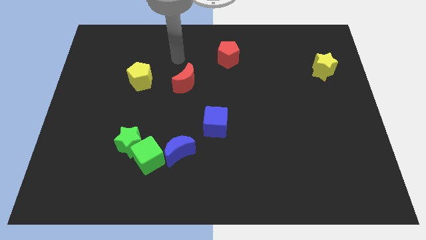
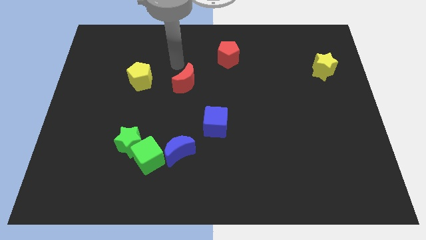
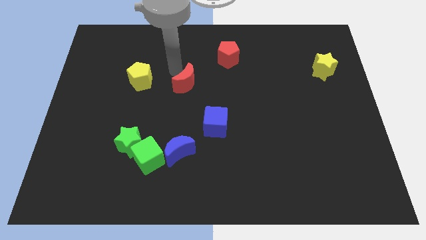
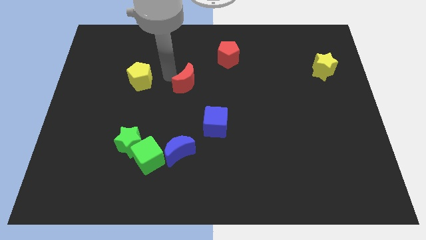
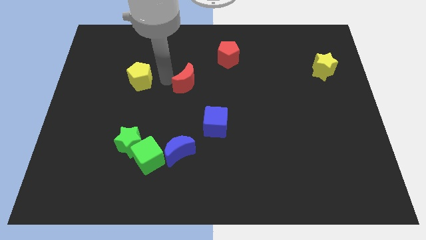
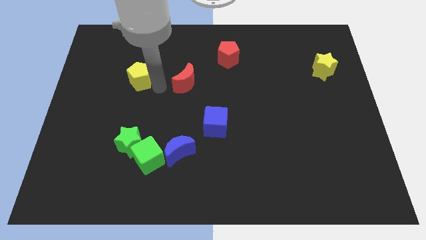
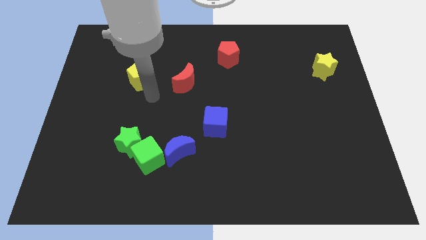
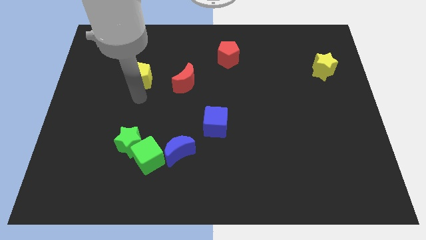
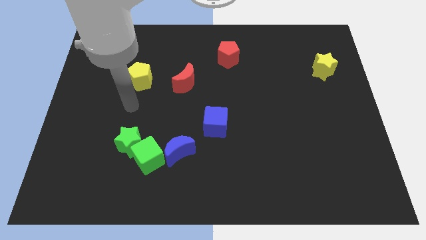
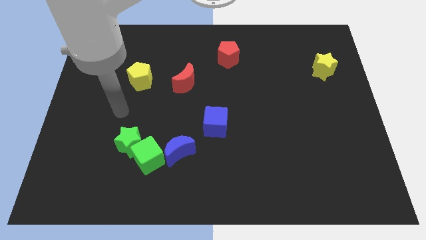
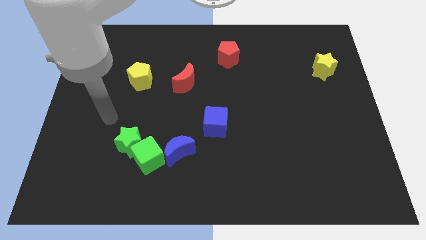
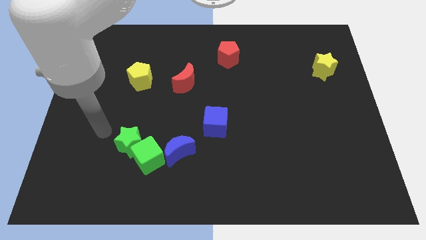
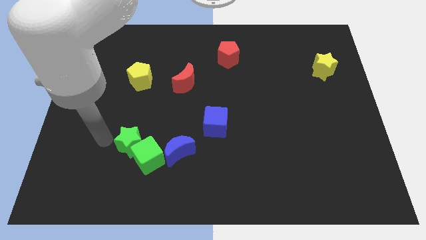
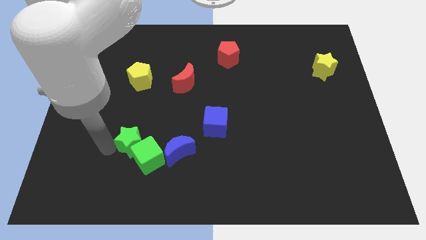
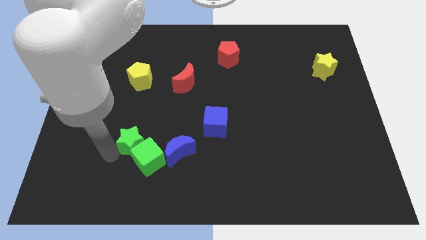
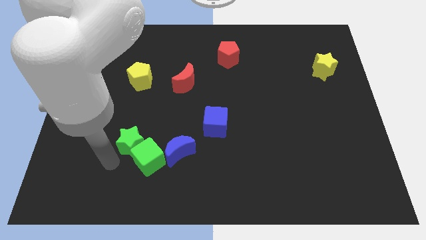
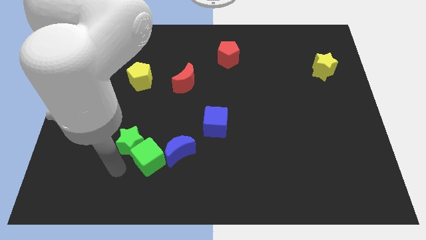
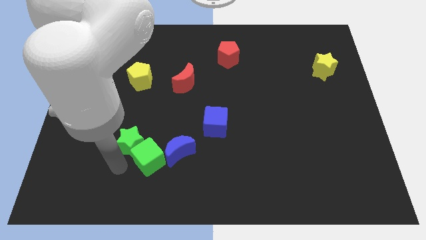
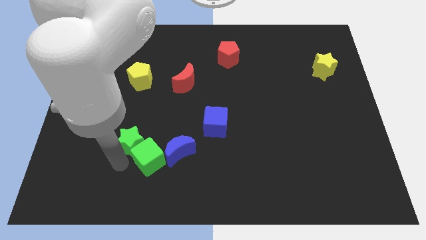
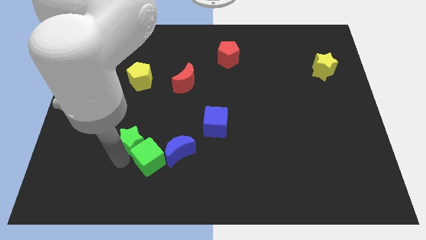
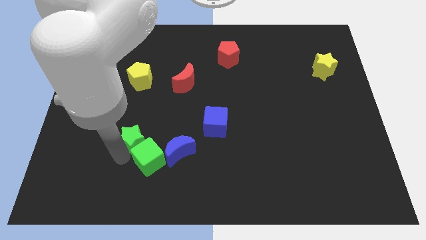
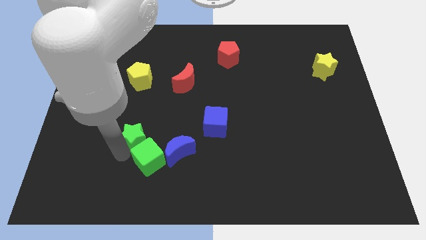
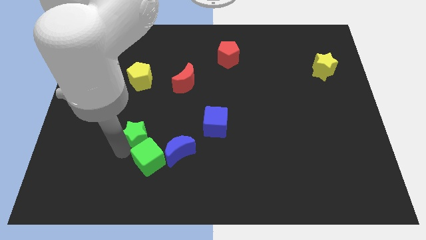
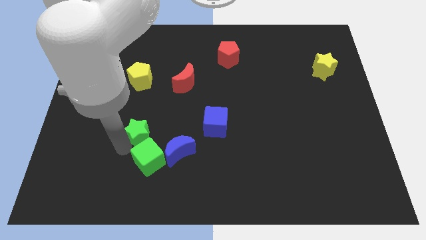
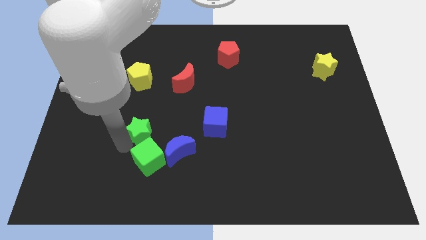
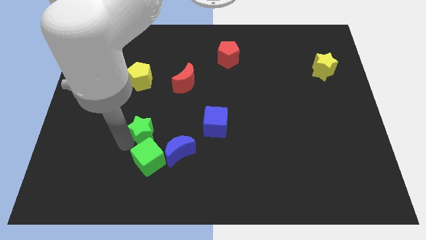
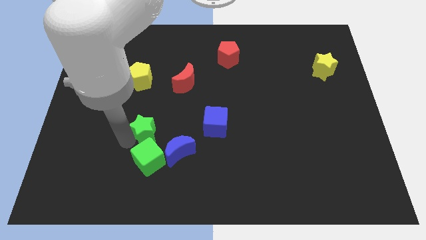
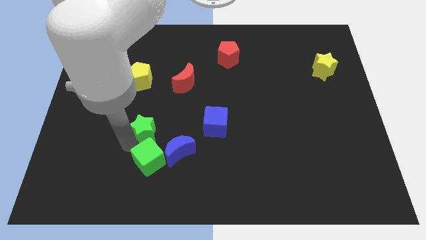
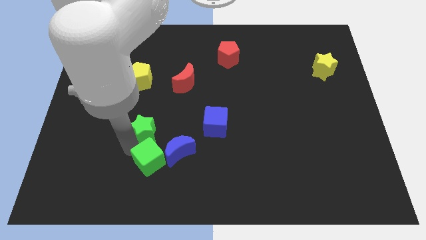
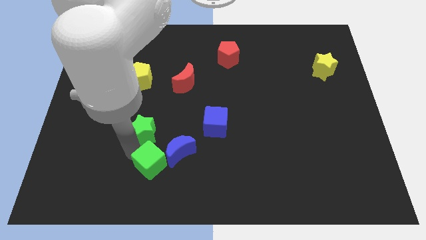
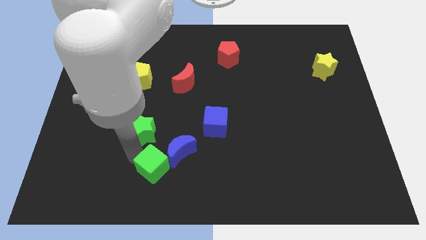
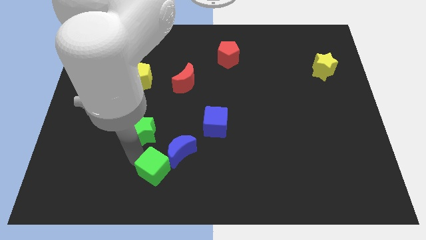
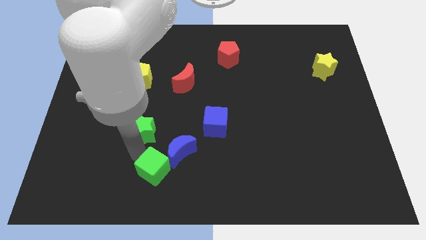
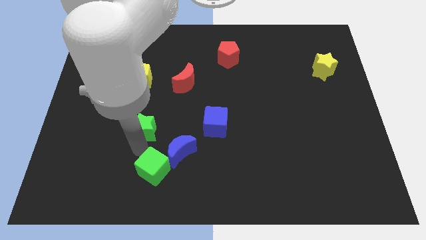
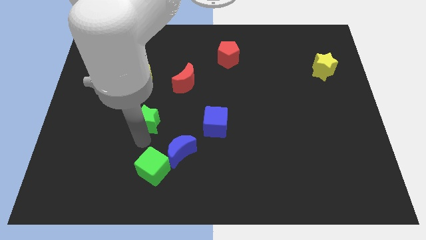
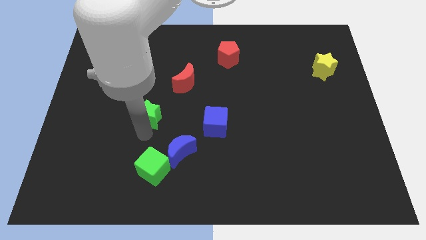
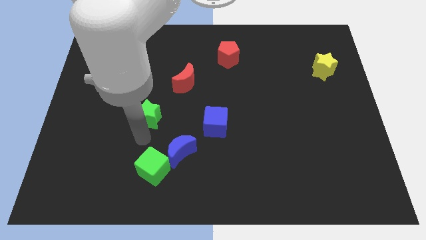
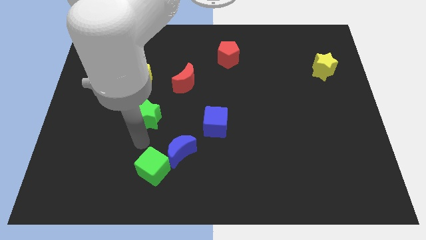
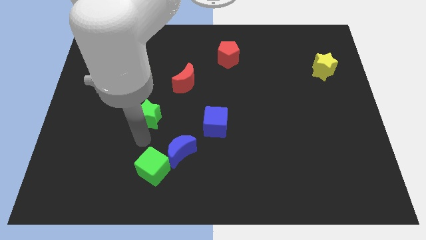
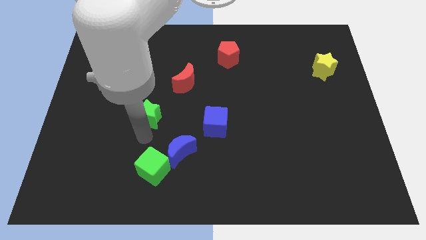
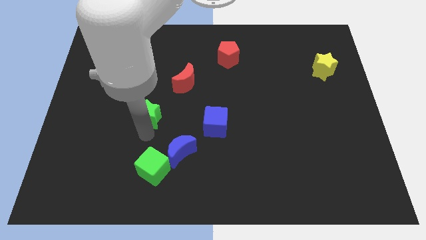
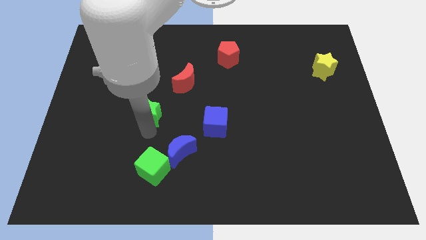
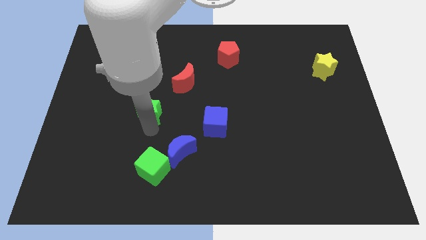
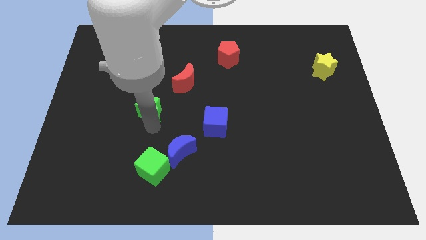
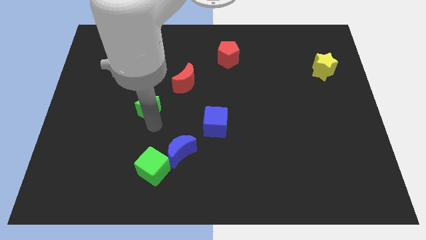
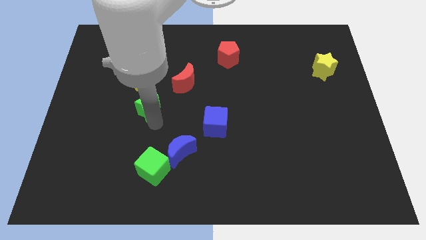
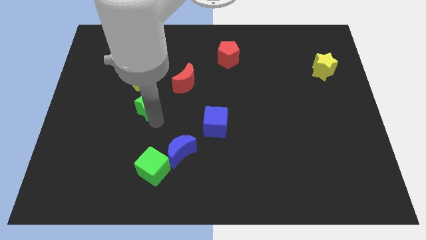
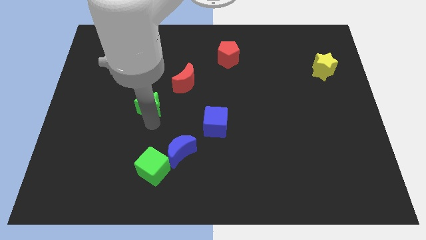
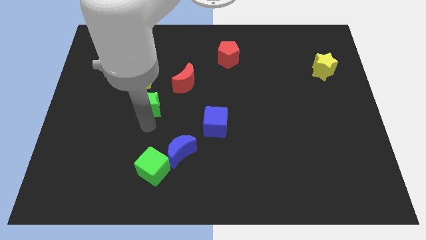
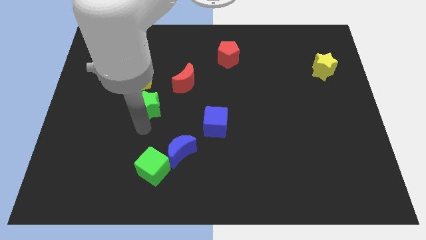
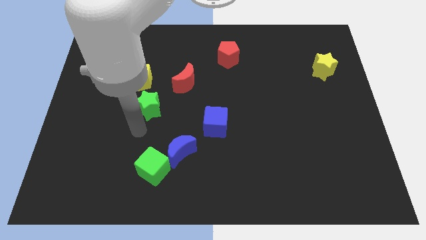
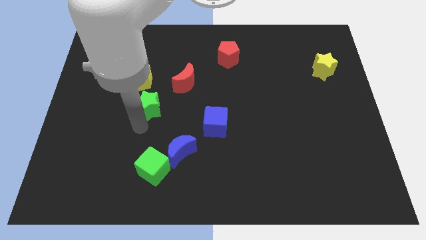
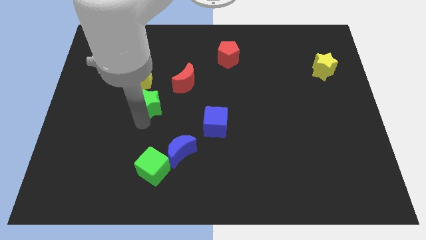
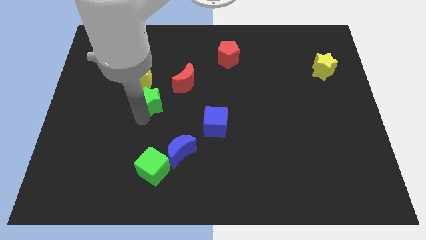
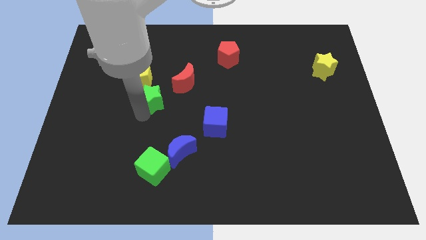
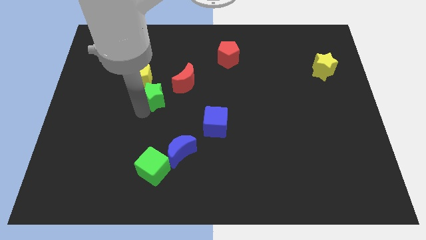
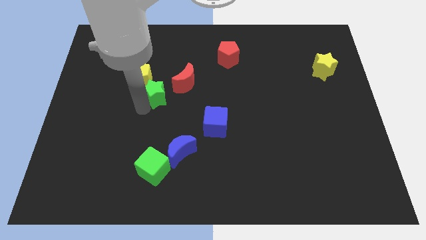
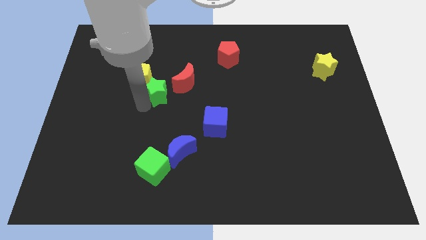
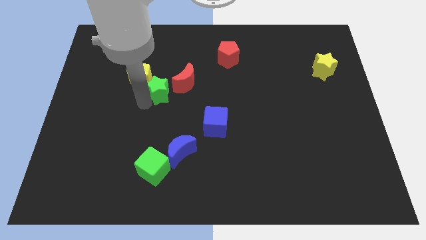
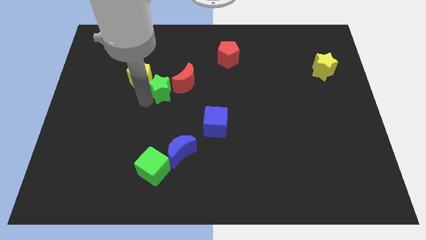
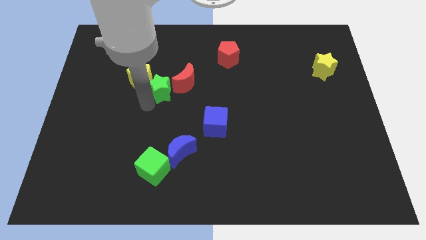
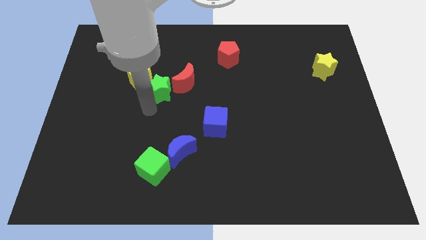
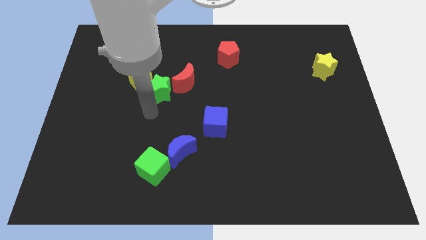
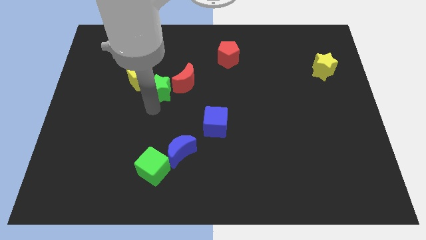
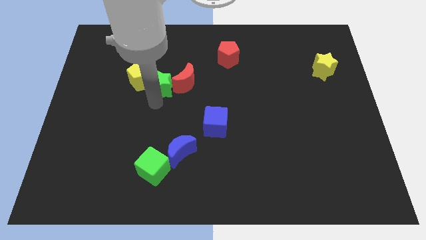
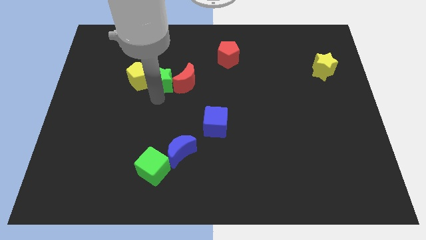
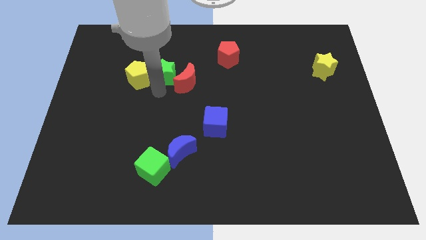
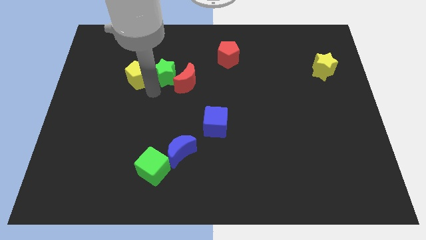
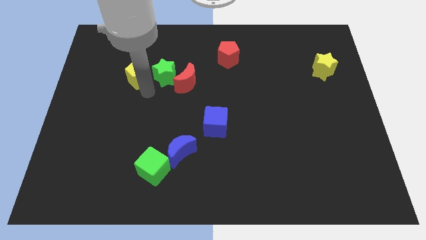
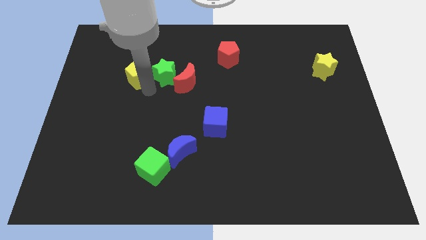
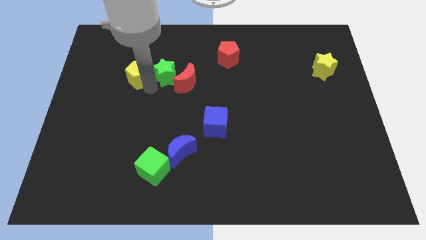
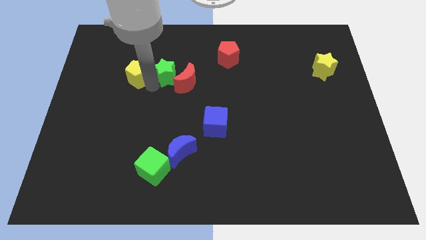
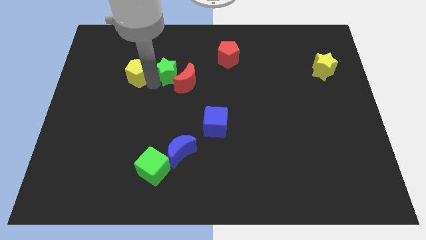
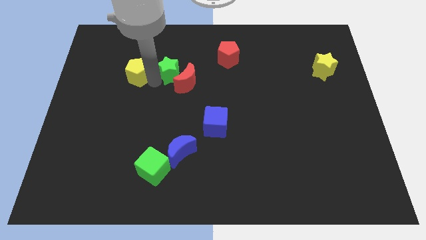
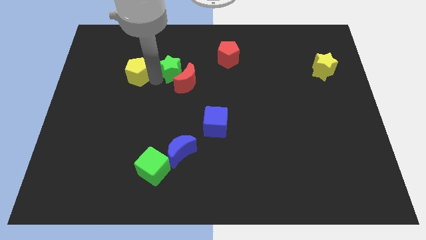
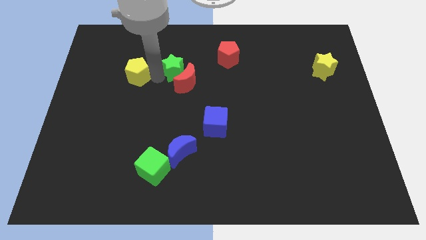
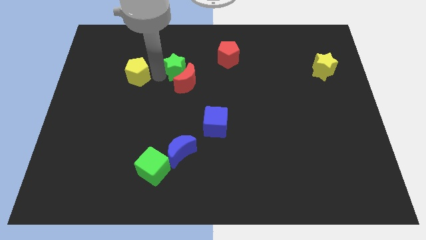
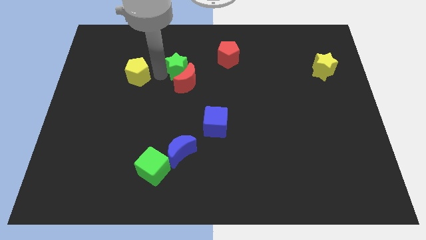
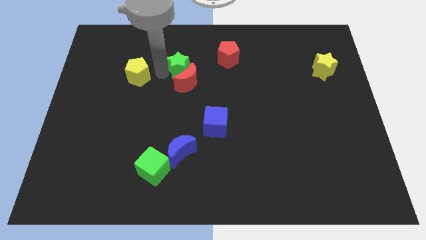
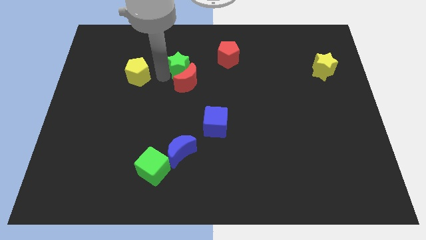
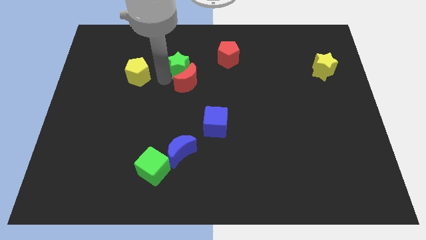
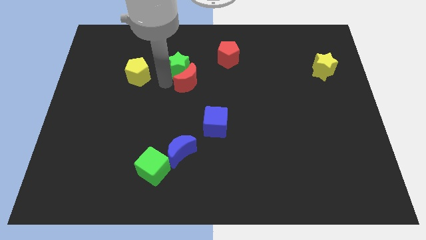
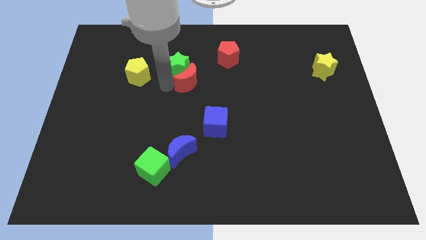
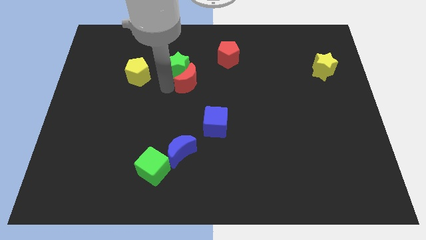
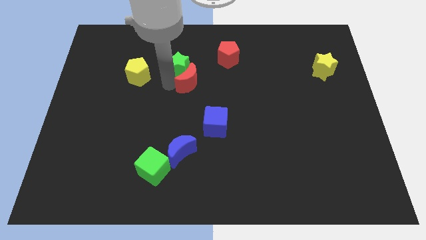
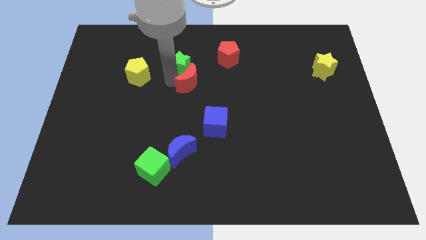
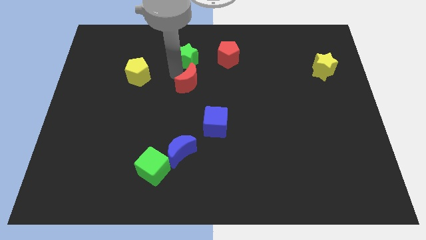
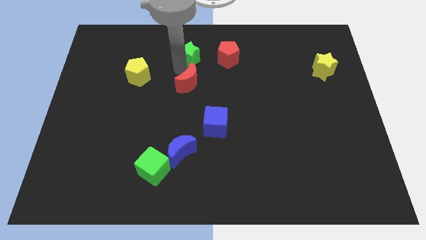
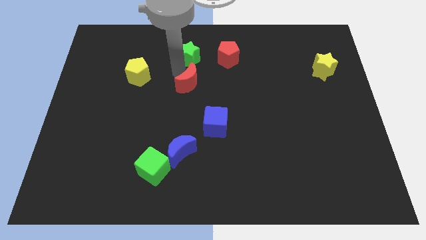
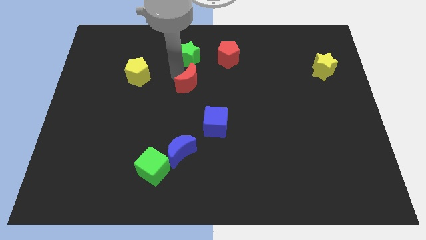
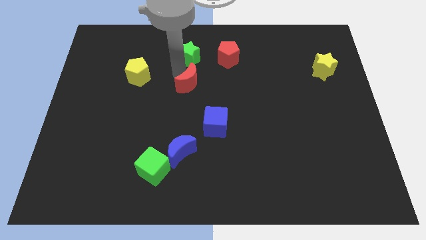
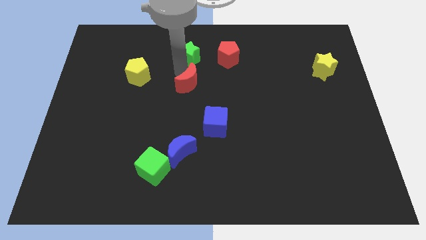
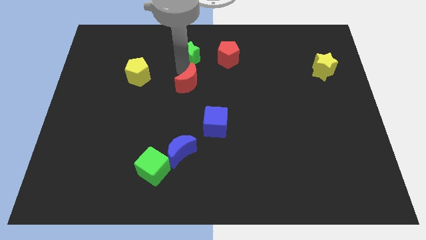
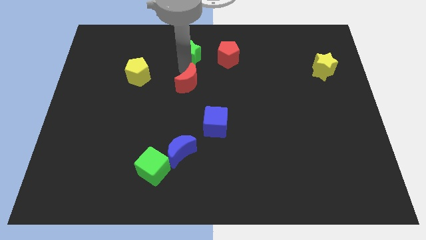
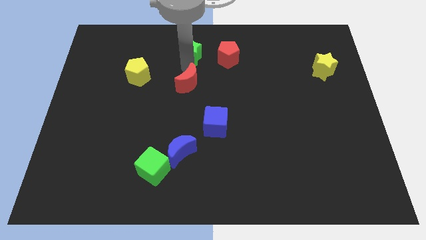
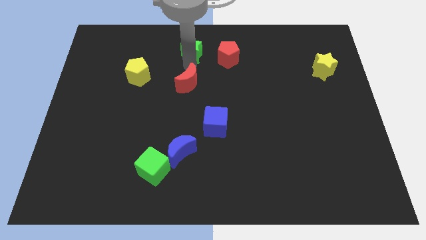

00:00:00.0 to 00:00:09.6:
move the green star to the top
